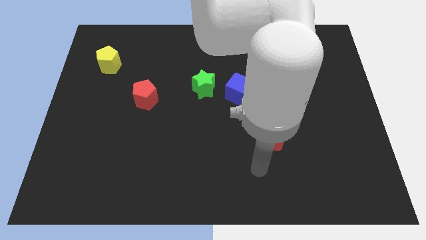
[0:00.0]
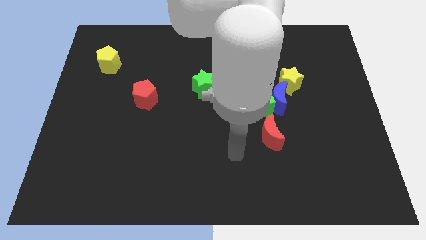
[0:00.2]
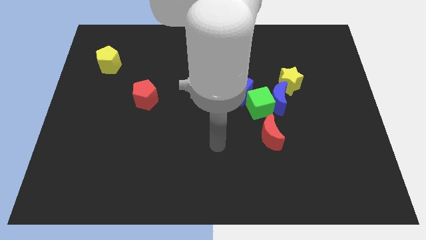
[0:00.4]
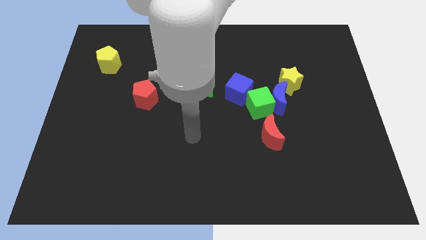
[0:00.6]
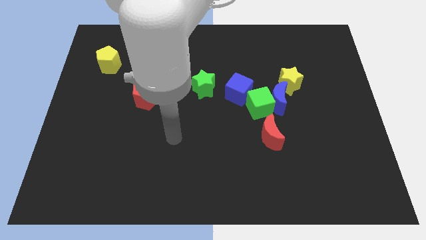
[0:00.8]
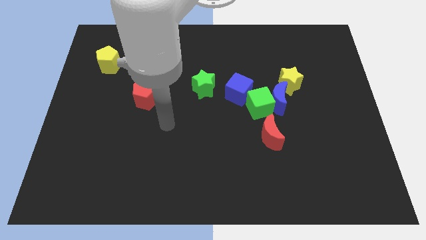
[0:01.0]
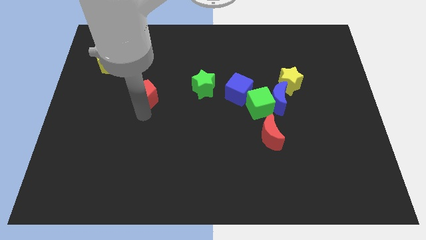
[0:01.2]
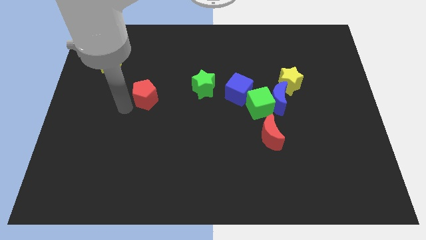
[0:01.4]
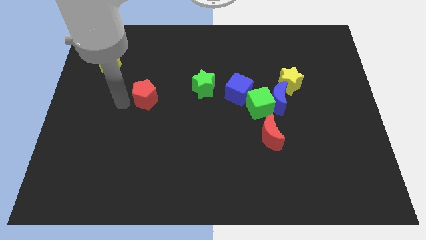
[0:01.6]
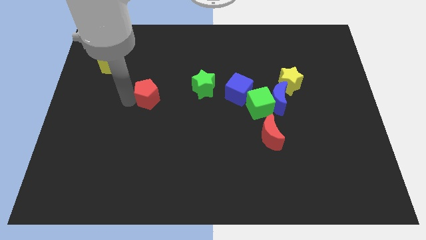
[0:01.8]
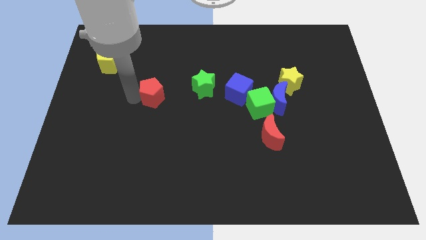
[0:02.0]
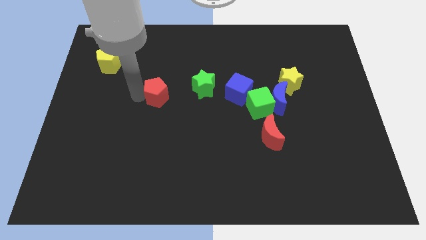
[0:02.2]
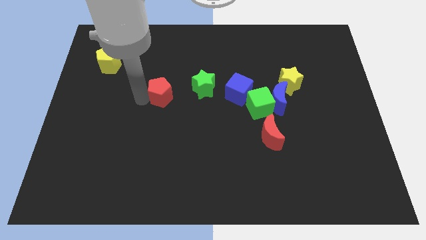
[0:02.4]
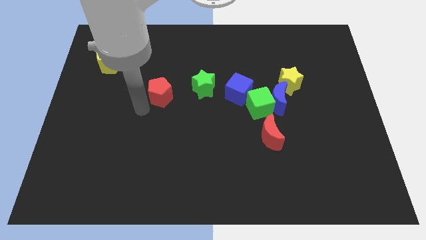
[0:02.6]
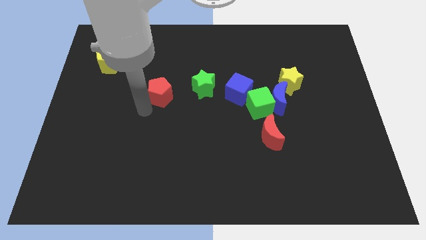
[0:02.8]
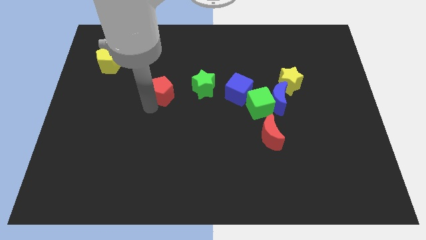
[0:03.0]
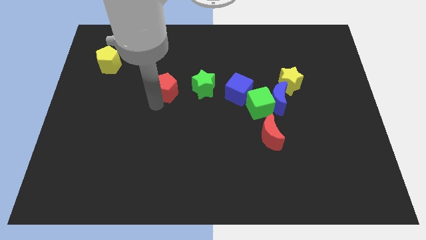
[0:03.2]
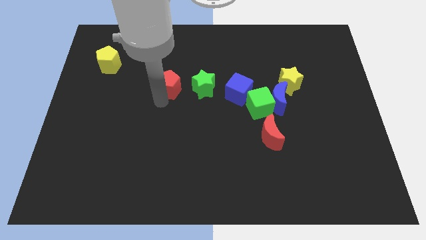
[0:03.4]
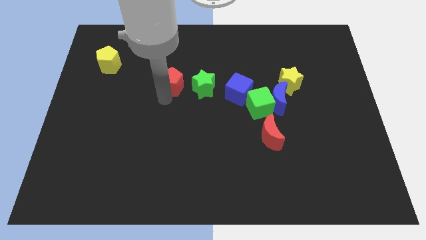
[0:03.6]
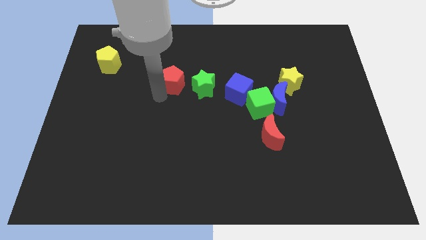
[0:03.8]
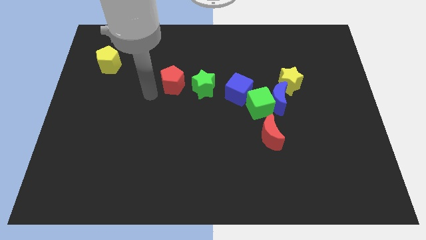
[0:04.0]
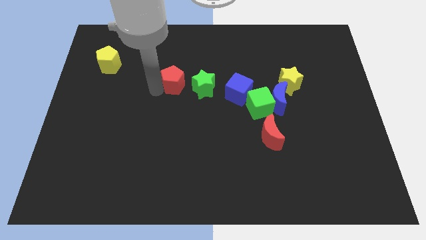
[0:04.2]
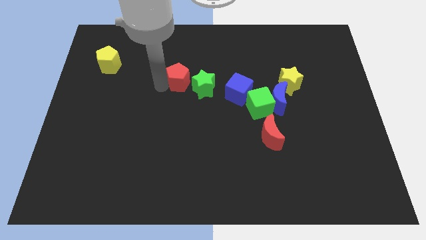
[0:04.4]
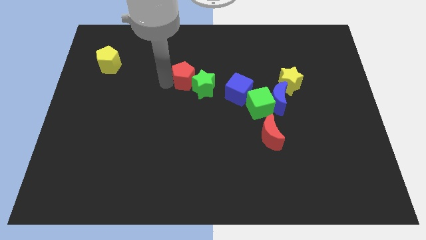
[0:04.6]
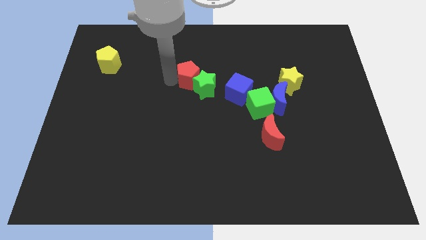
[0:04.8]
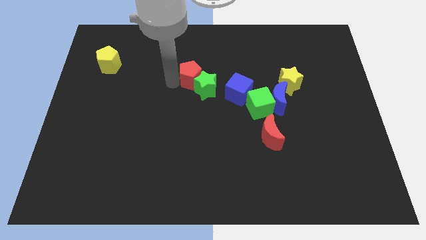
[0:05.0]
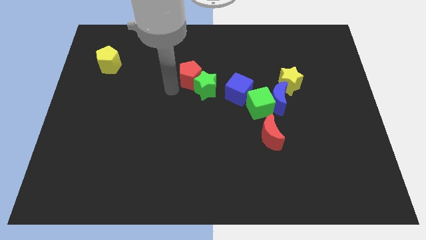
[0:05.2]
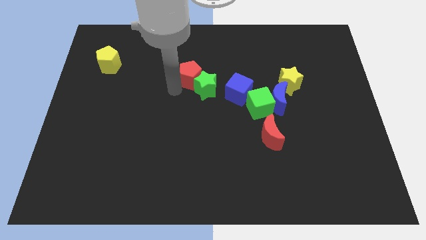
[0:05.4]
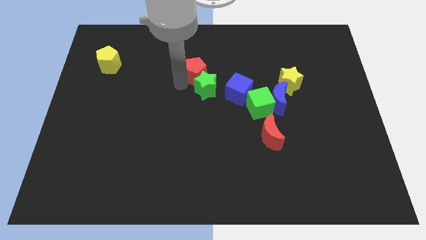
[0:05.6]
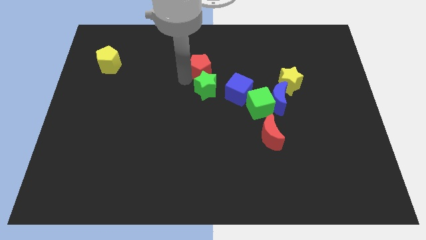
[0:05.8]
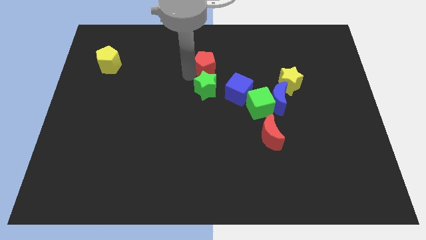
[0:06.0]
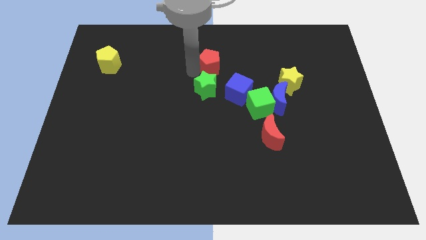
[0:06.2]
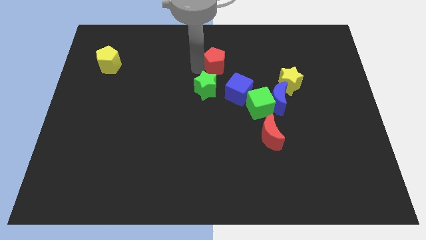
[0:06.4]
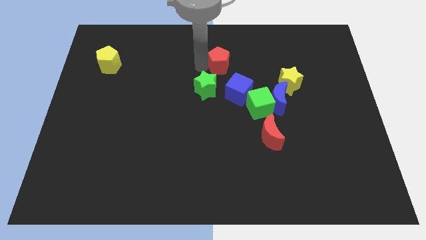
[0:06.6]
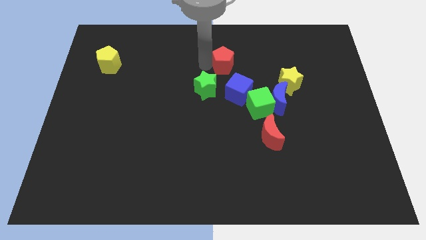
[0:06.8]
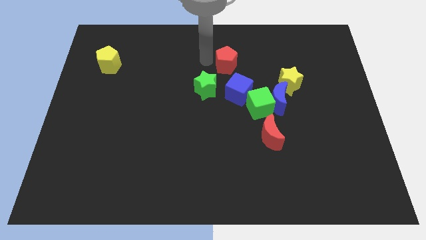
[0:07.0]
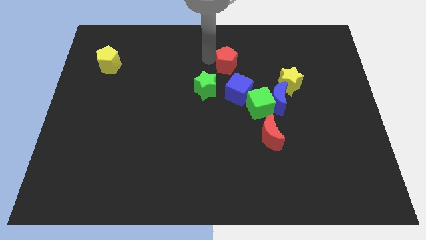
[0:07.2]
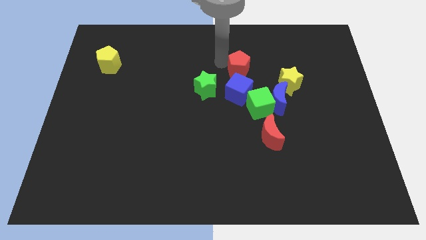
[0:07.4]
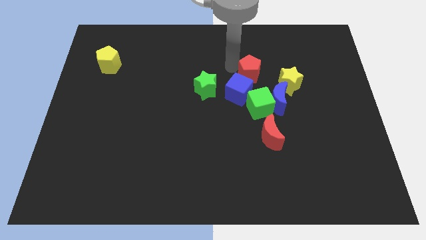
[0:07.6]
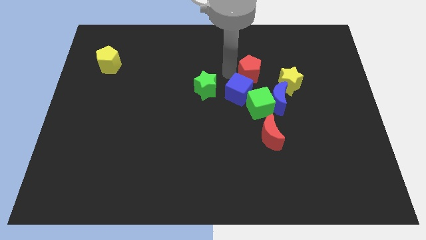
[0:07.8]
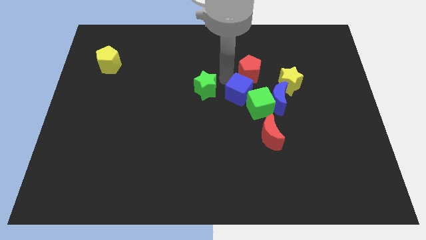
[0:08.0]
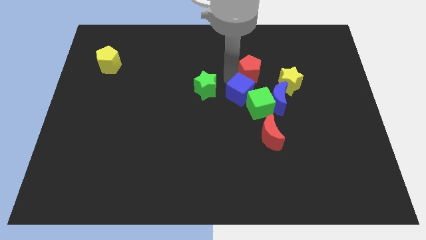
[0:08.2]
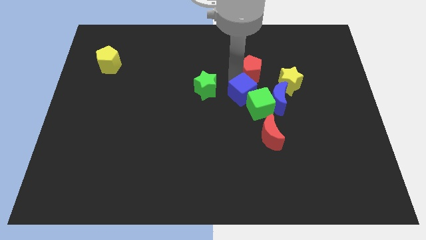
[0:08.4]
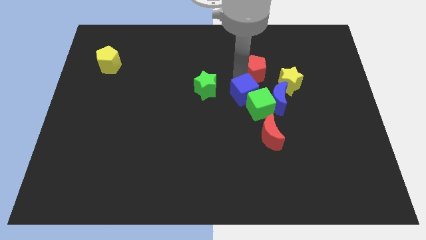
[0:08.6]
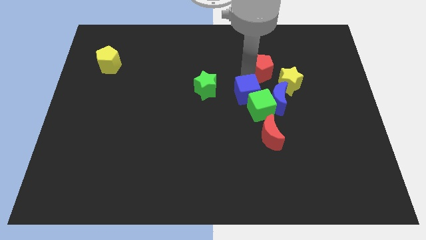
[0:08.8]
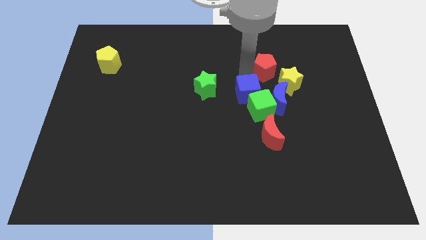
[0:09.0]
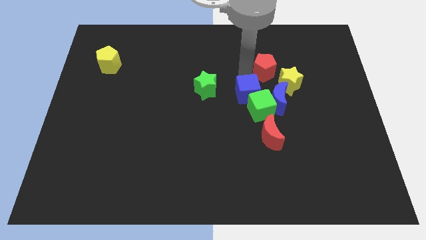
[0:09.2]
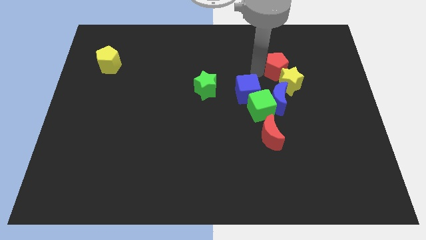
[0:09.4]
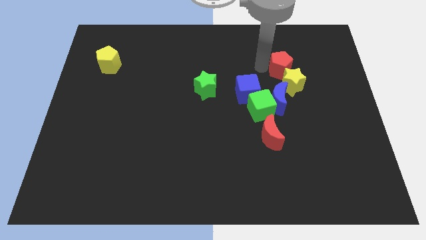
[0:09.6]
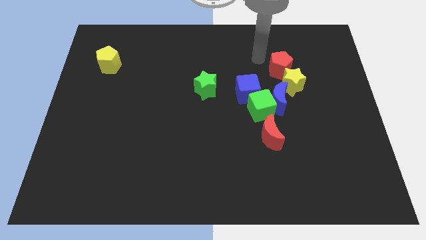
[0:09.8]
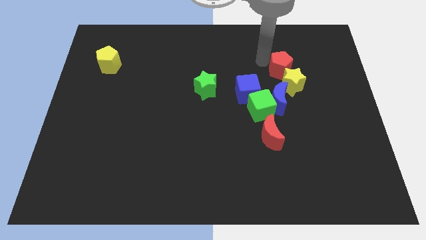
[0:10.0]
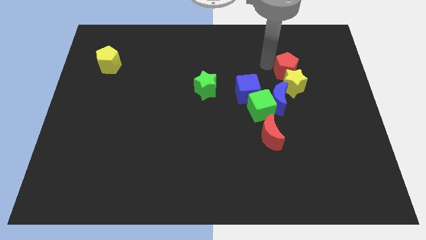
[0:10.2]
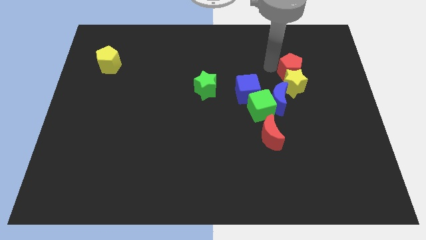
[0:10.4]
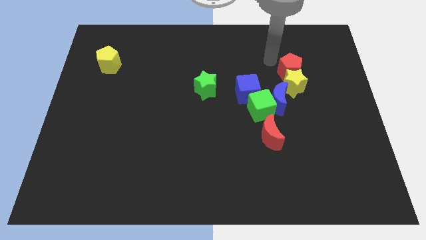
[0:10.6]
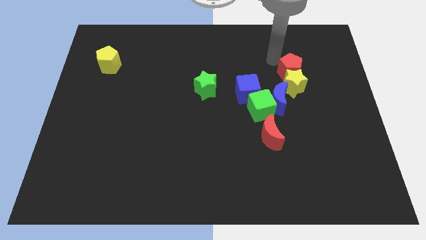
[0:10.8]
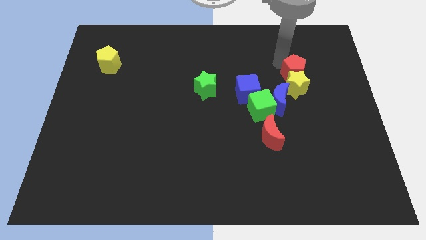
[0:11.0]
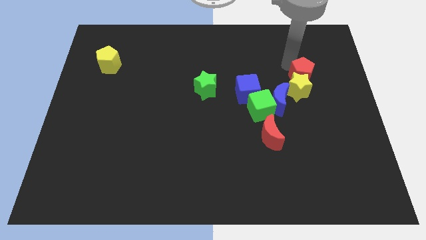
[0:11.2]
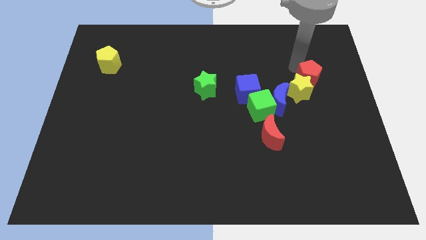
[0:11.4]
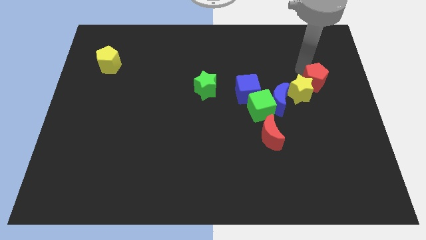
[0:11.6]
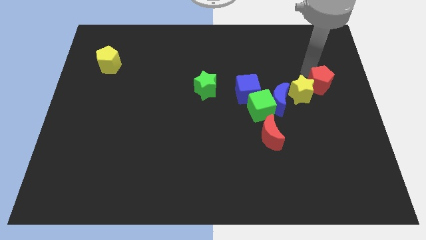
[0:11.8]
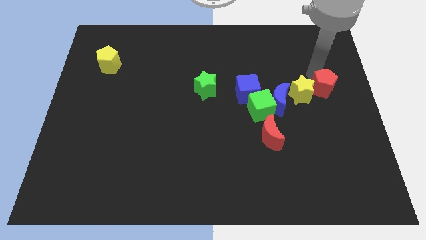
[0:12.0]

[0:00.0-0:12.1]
push the red pentagon to the right side of the blue moon

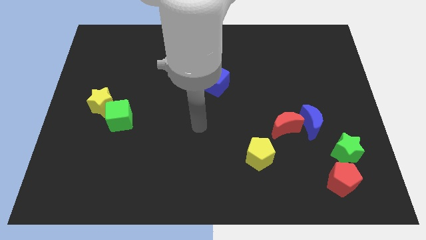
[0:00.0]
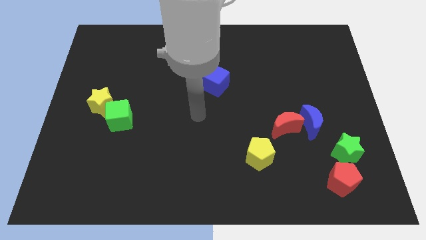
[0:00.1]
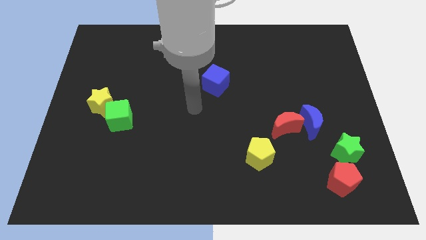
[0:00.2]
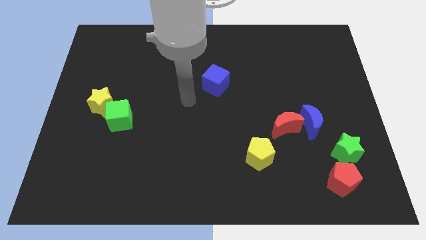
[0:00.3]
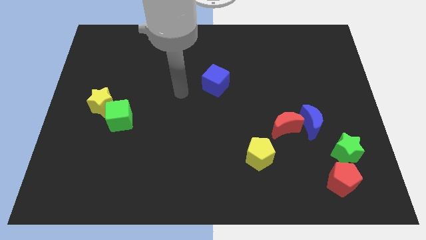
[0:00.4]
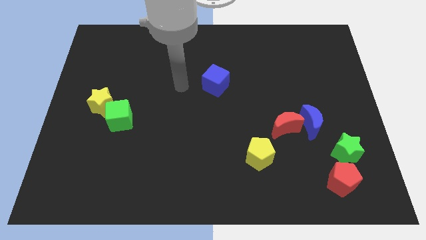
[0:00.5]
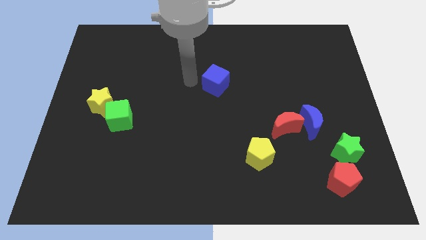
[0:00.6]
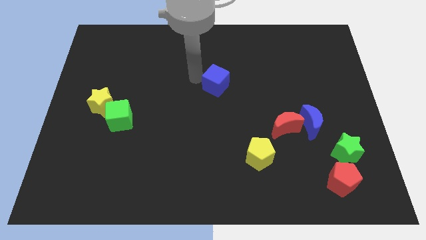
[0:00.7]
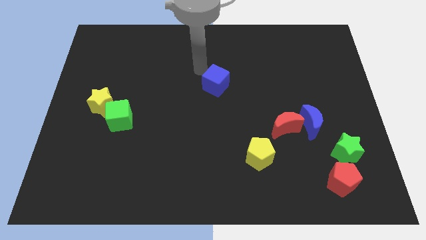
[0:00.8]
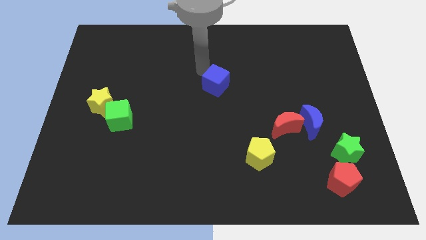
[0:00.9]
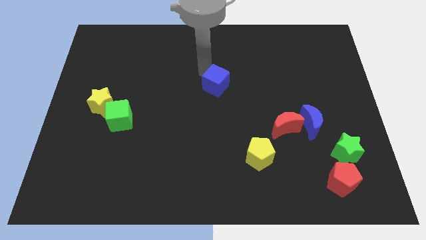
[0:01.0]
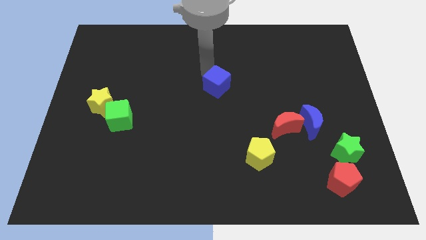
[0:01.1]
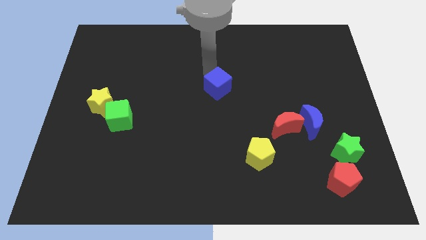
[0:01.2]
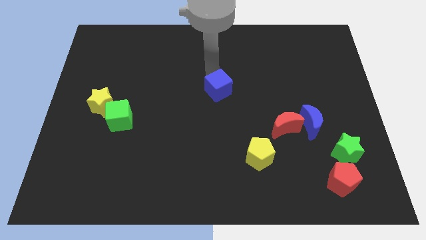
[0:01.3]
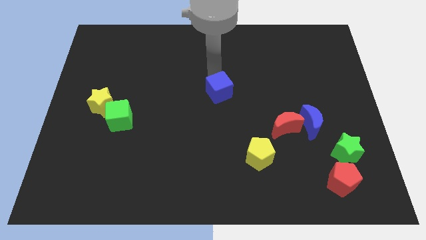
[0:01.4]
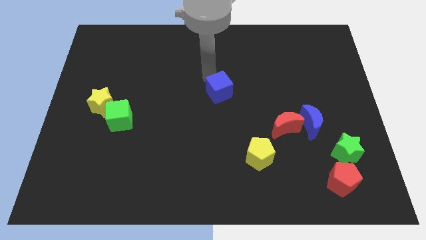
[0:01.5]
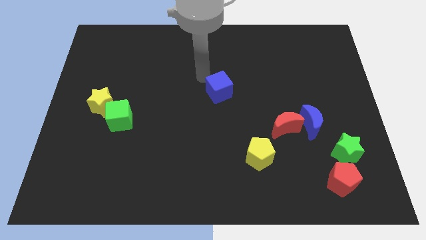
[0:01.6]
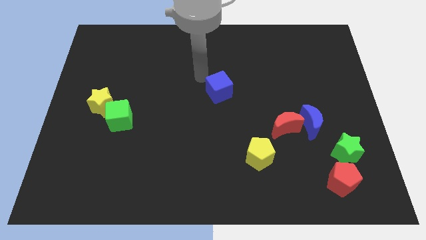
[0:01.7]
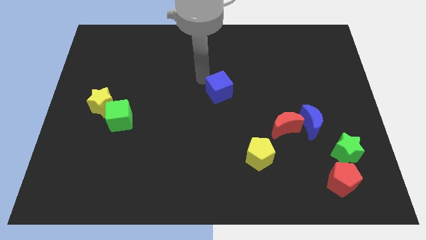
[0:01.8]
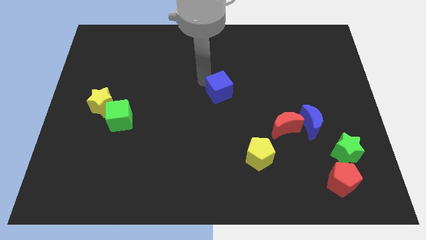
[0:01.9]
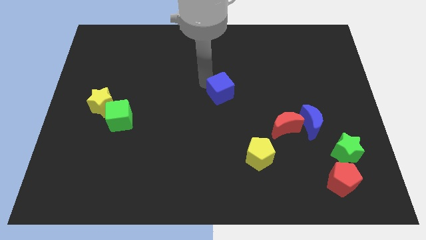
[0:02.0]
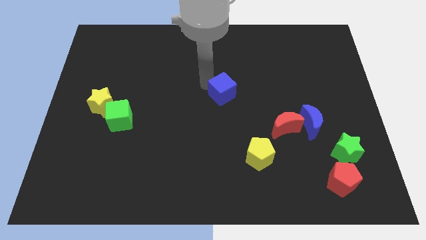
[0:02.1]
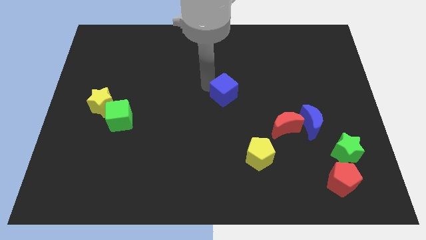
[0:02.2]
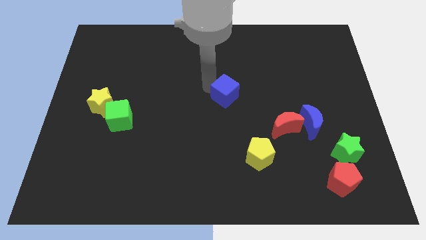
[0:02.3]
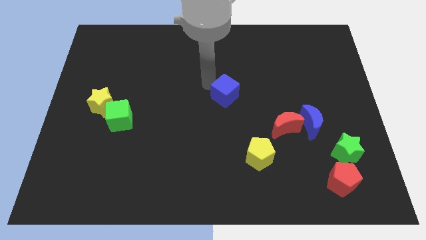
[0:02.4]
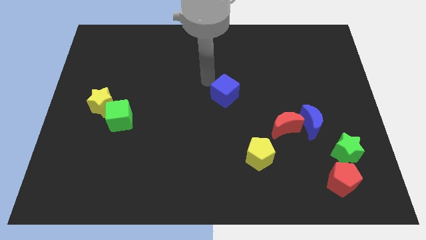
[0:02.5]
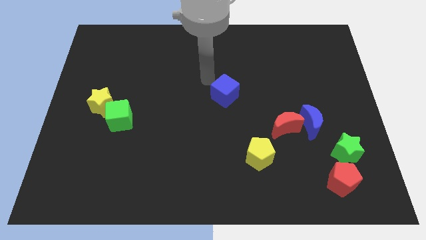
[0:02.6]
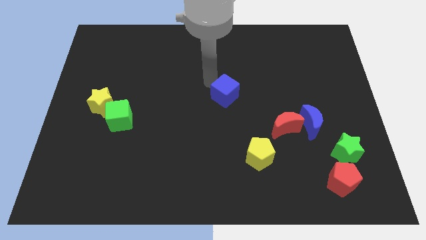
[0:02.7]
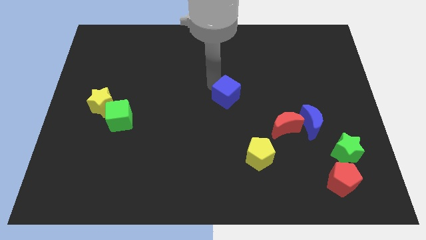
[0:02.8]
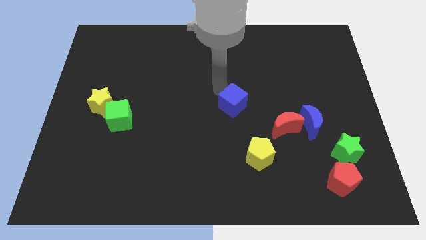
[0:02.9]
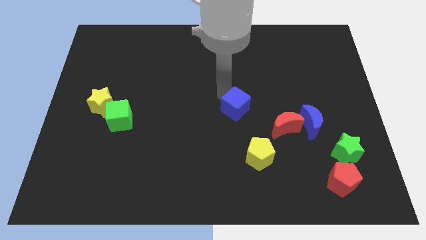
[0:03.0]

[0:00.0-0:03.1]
push the blue cube to the top of the yellow pentagon
